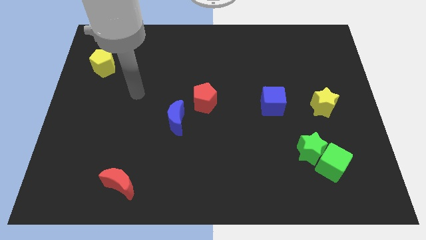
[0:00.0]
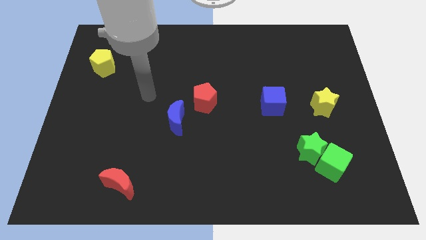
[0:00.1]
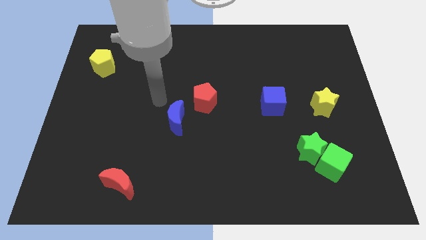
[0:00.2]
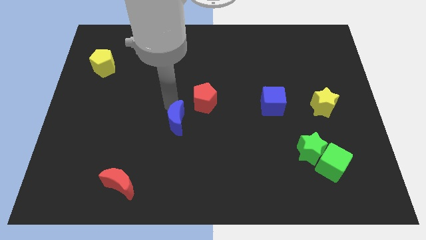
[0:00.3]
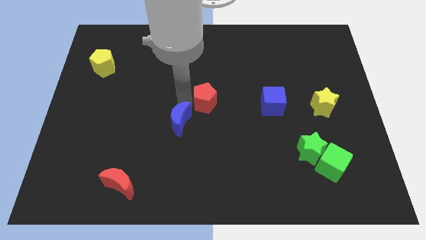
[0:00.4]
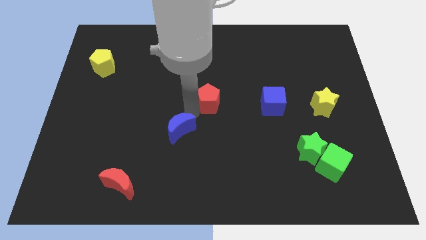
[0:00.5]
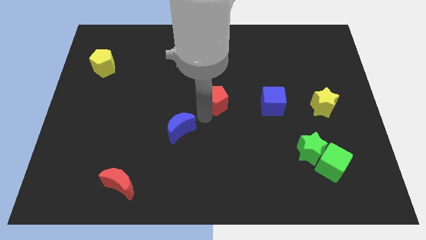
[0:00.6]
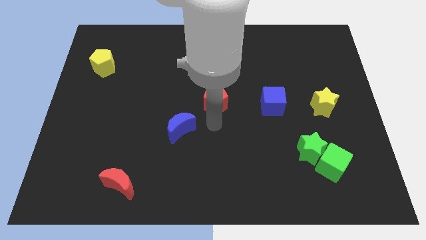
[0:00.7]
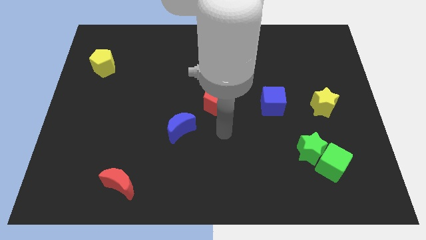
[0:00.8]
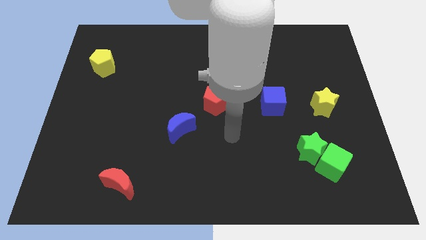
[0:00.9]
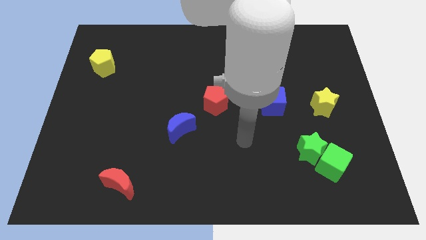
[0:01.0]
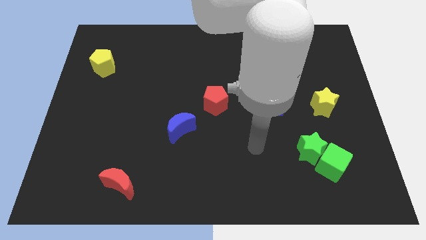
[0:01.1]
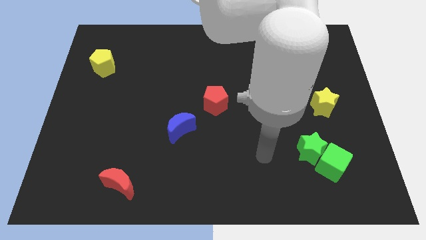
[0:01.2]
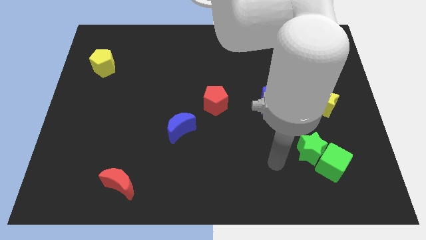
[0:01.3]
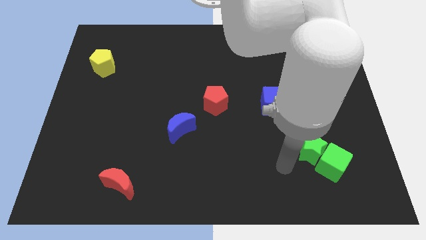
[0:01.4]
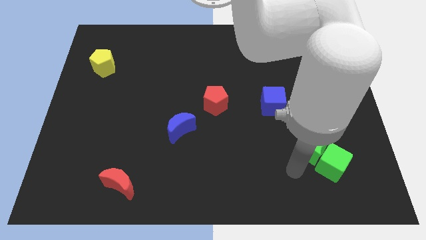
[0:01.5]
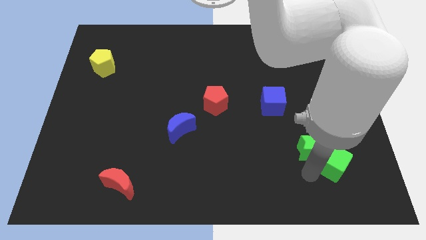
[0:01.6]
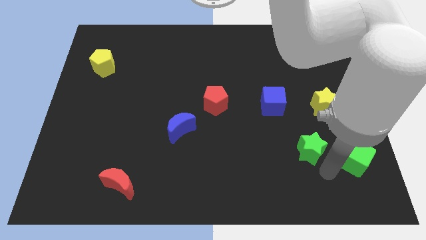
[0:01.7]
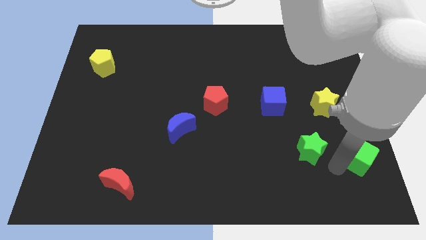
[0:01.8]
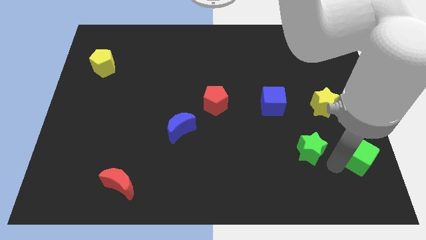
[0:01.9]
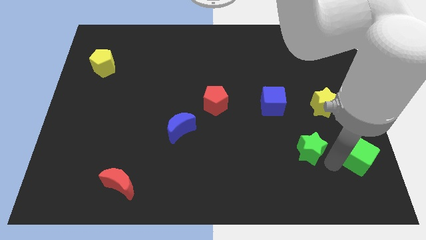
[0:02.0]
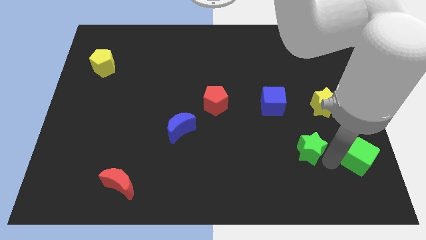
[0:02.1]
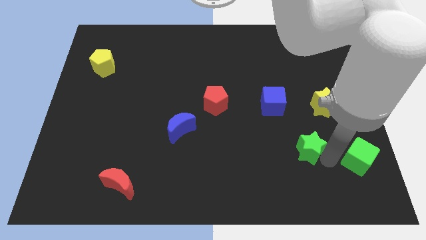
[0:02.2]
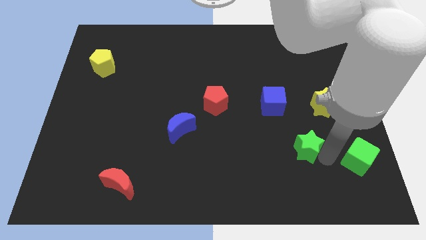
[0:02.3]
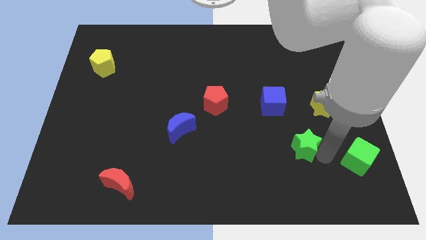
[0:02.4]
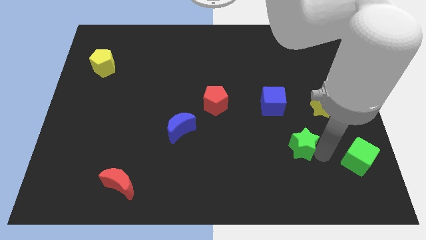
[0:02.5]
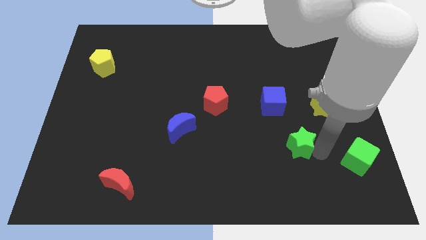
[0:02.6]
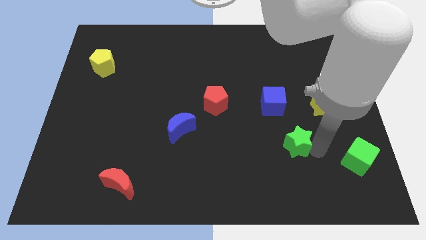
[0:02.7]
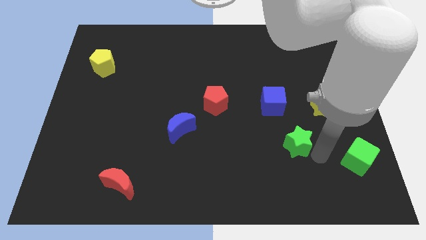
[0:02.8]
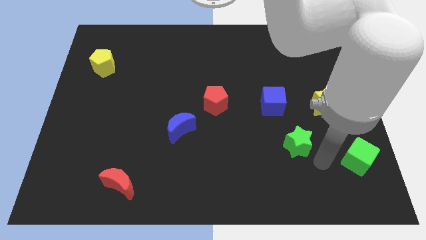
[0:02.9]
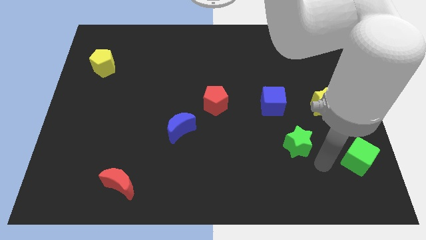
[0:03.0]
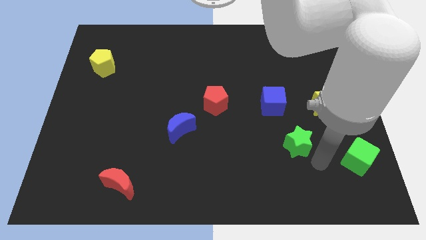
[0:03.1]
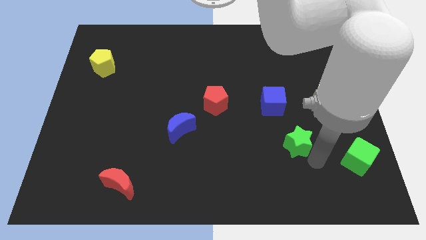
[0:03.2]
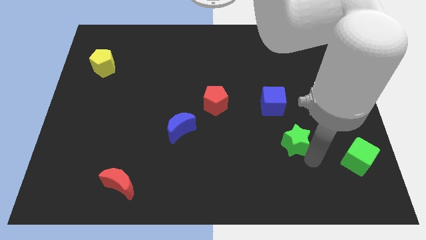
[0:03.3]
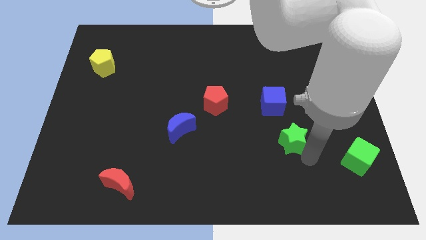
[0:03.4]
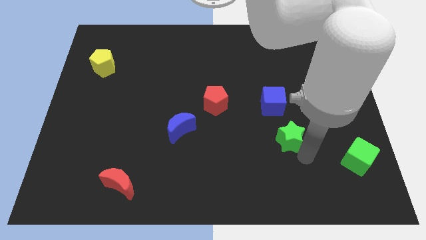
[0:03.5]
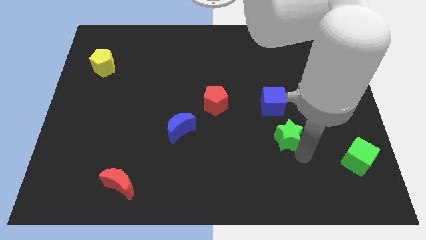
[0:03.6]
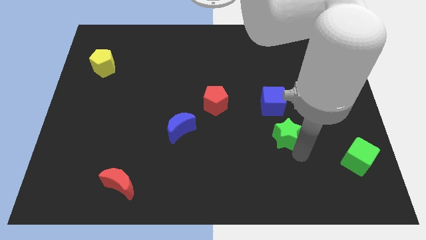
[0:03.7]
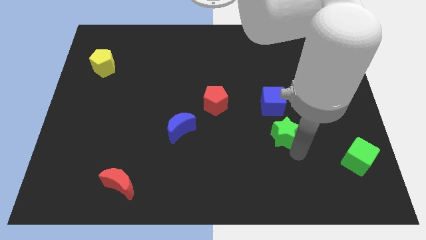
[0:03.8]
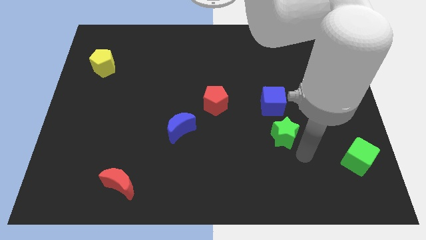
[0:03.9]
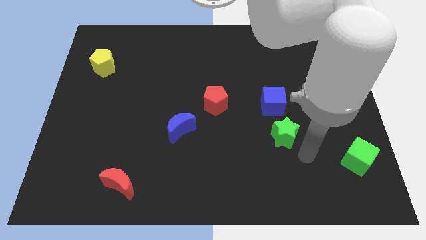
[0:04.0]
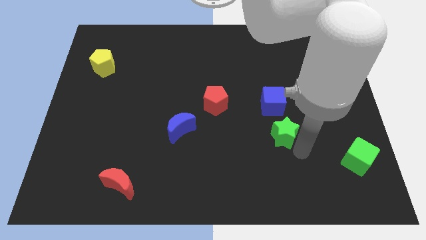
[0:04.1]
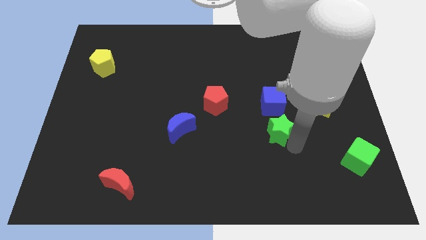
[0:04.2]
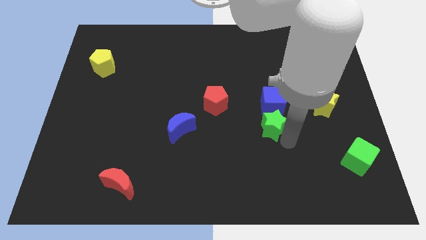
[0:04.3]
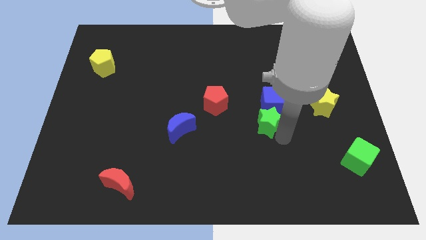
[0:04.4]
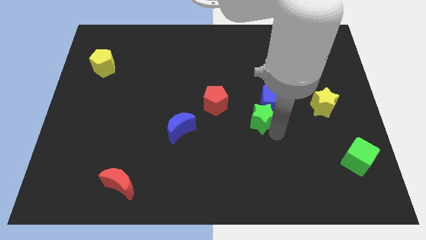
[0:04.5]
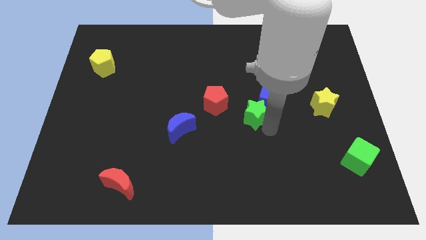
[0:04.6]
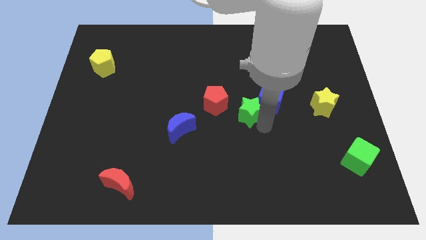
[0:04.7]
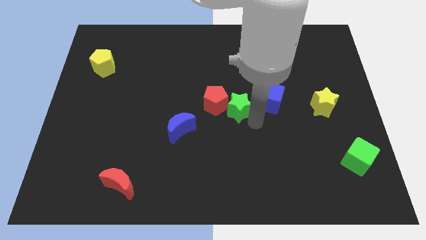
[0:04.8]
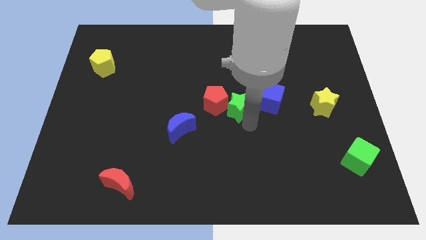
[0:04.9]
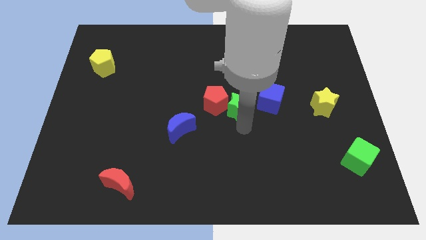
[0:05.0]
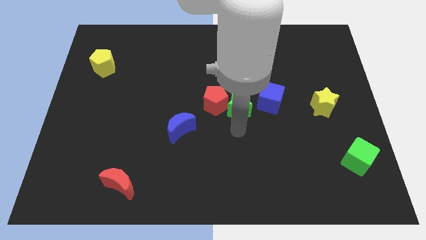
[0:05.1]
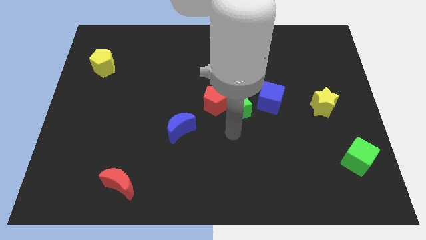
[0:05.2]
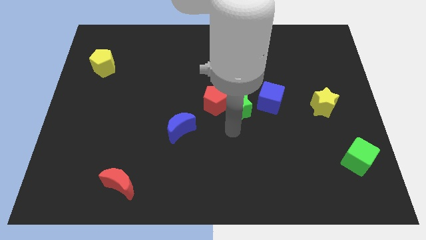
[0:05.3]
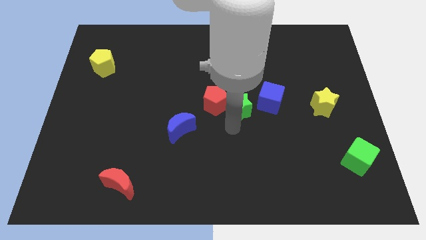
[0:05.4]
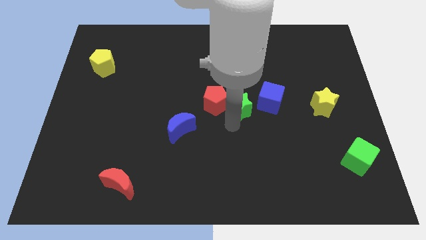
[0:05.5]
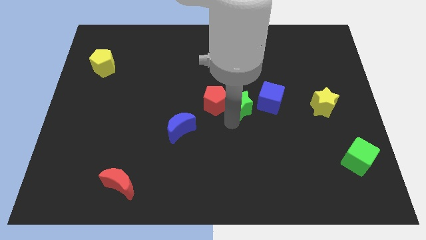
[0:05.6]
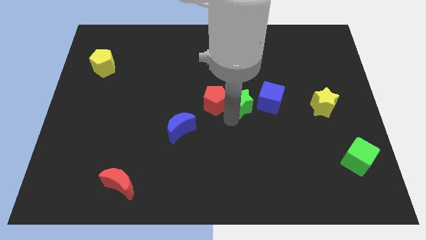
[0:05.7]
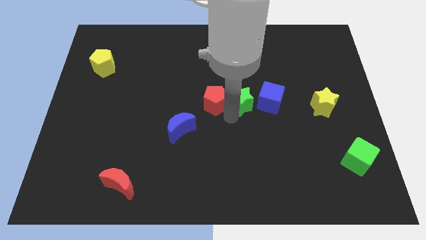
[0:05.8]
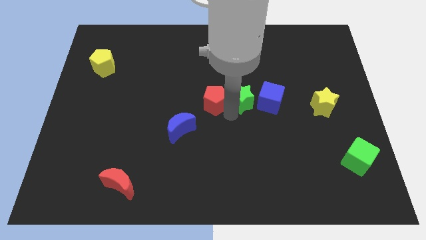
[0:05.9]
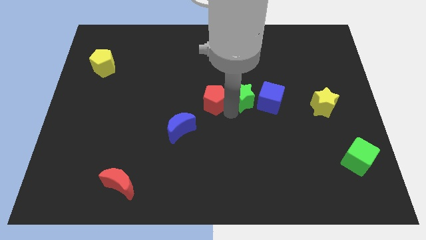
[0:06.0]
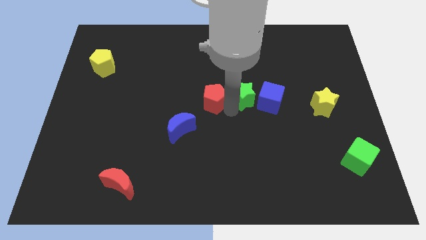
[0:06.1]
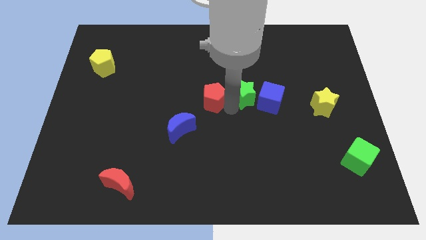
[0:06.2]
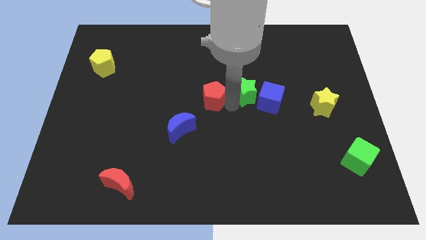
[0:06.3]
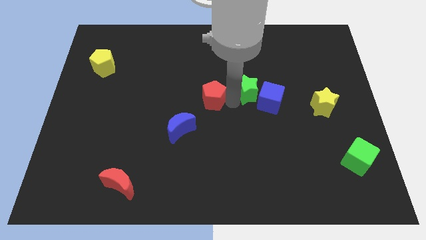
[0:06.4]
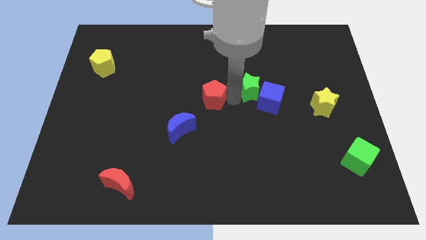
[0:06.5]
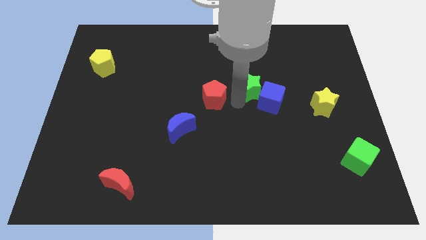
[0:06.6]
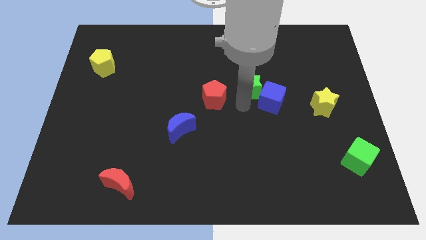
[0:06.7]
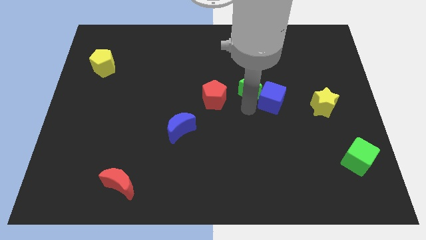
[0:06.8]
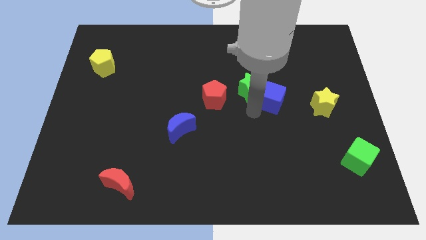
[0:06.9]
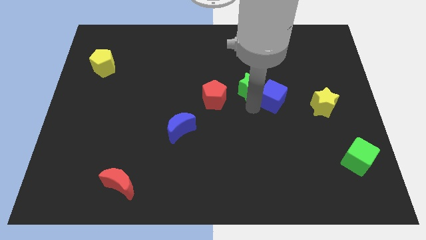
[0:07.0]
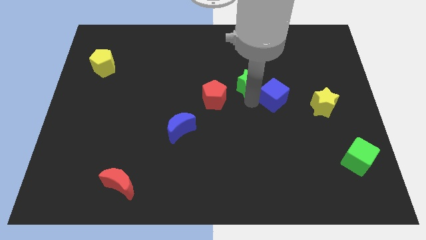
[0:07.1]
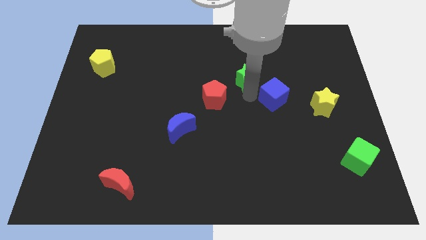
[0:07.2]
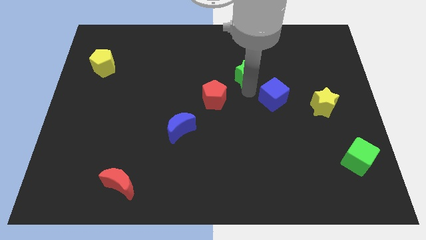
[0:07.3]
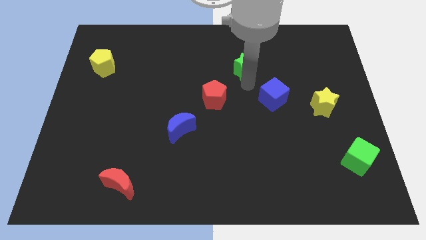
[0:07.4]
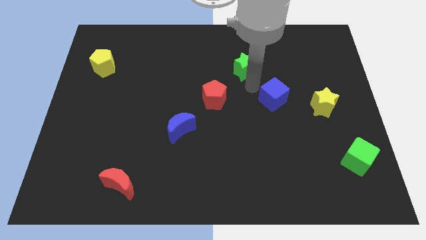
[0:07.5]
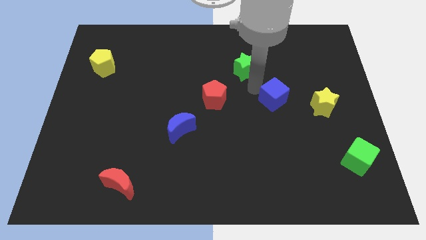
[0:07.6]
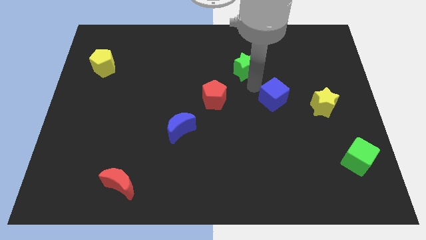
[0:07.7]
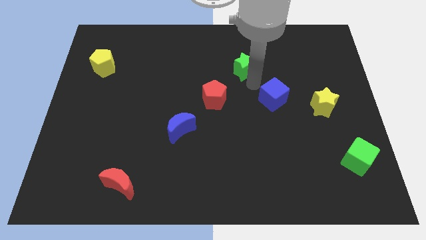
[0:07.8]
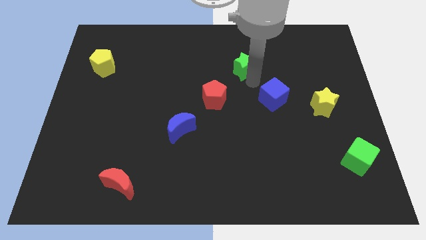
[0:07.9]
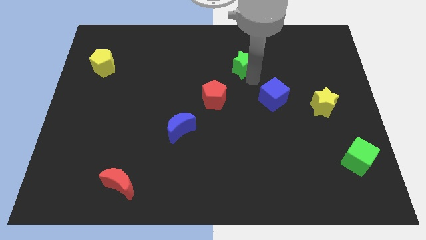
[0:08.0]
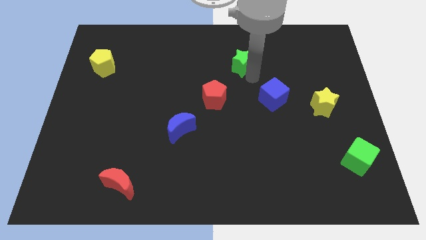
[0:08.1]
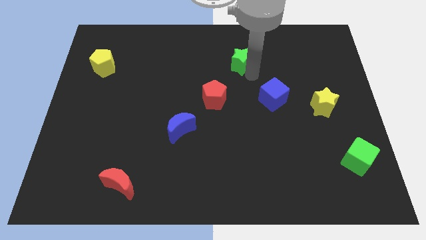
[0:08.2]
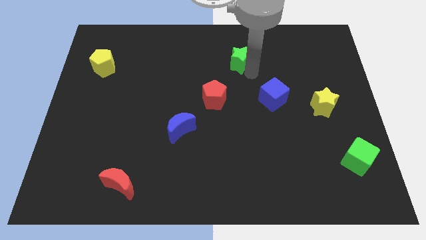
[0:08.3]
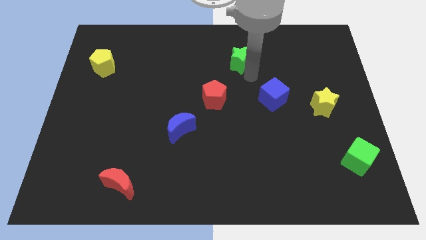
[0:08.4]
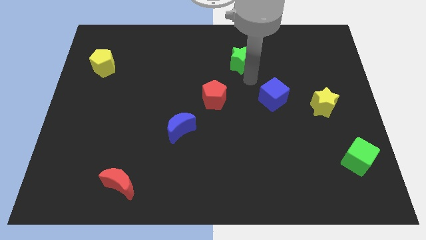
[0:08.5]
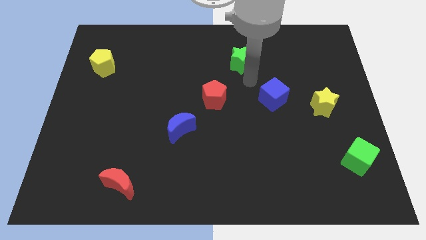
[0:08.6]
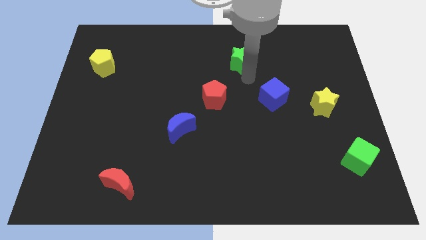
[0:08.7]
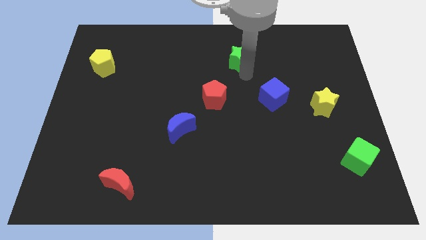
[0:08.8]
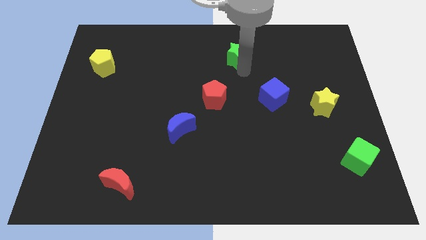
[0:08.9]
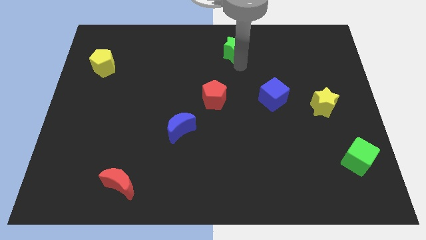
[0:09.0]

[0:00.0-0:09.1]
push the green star to the top
